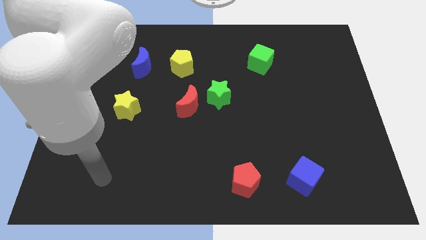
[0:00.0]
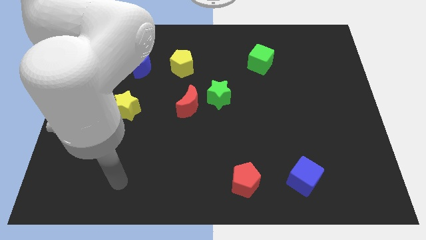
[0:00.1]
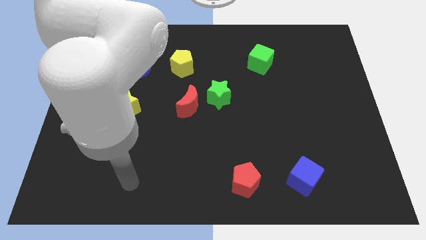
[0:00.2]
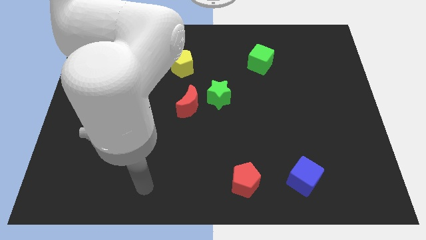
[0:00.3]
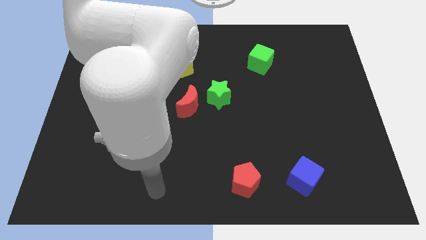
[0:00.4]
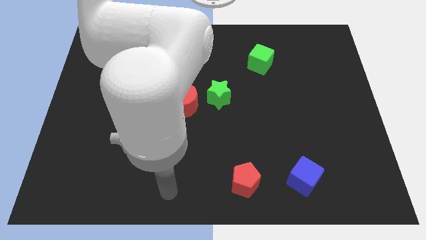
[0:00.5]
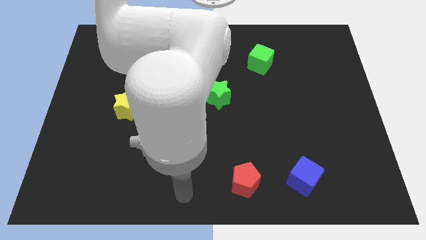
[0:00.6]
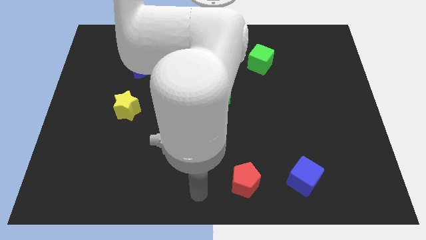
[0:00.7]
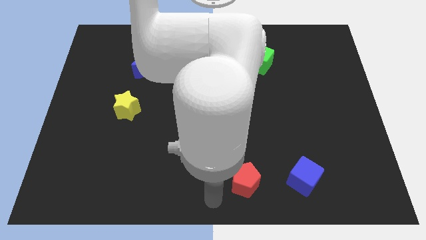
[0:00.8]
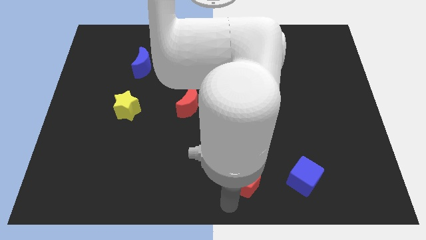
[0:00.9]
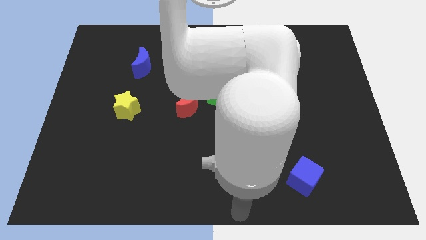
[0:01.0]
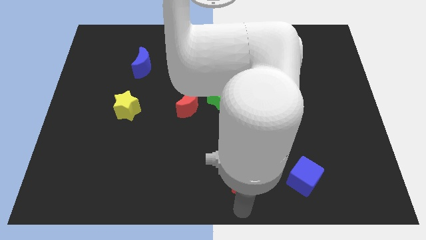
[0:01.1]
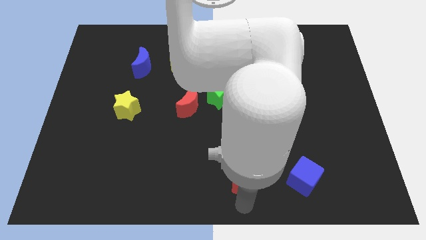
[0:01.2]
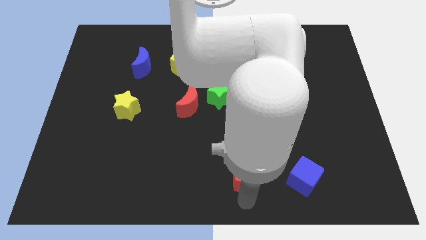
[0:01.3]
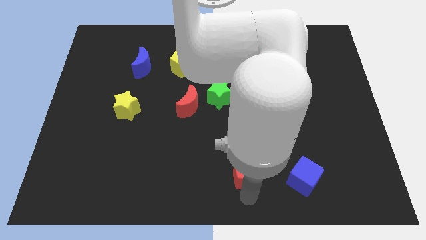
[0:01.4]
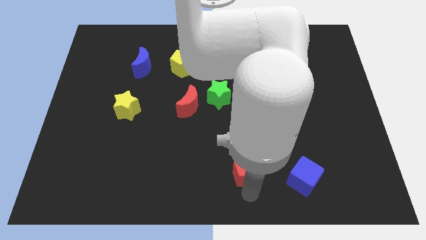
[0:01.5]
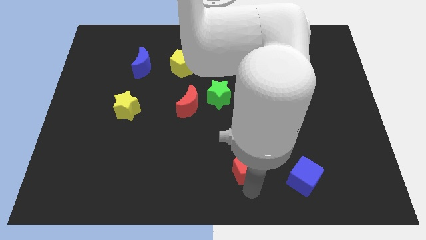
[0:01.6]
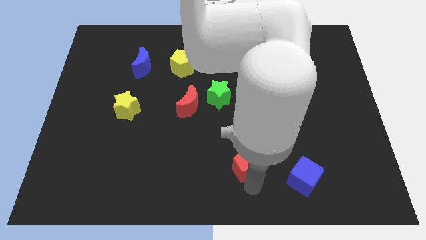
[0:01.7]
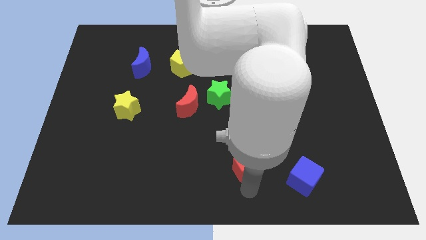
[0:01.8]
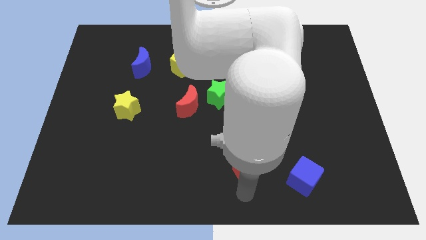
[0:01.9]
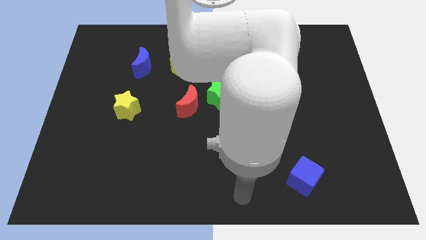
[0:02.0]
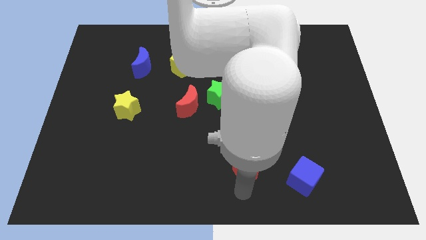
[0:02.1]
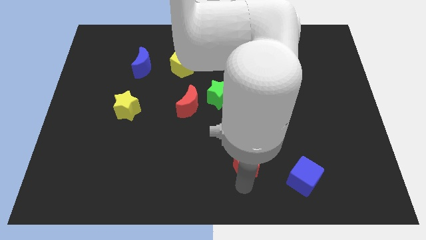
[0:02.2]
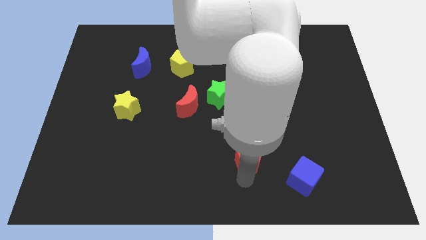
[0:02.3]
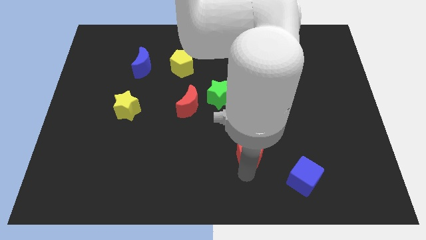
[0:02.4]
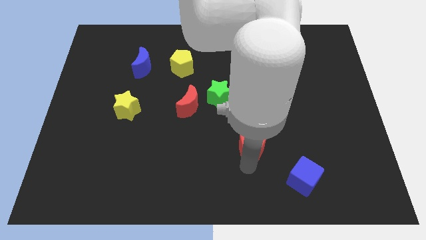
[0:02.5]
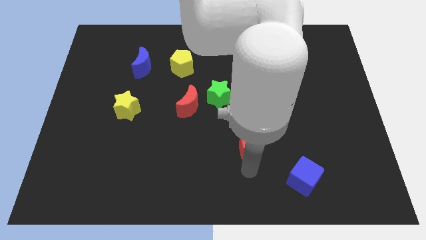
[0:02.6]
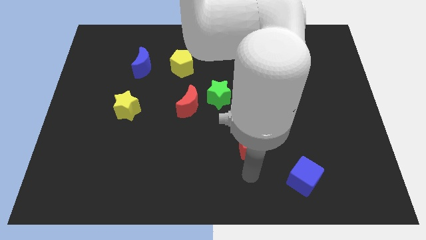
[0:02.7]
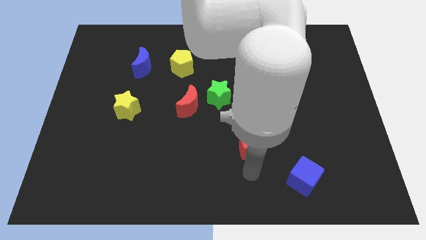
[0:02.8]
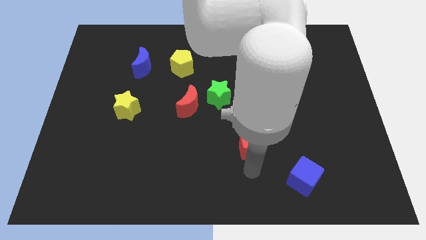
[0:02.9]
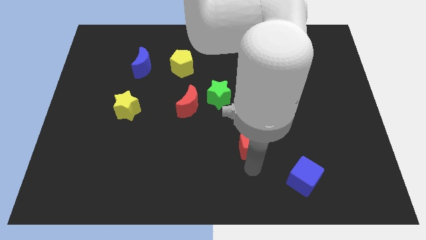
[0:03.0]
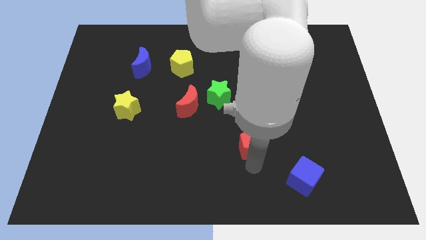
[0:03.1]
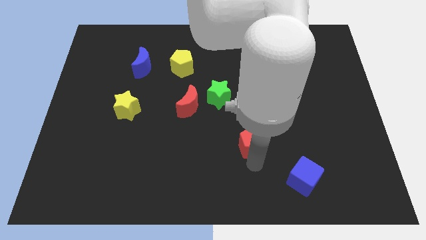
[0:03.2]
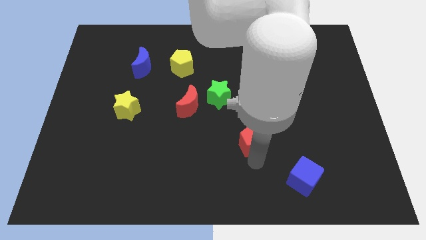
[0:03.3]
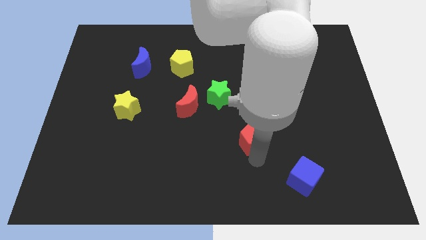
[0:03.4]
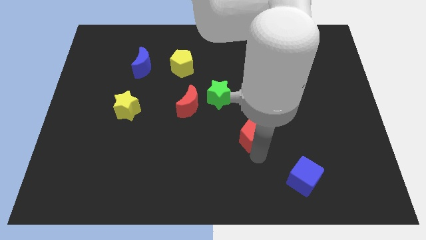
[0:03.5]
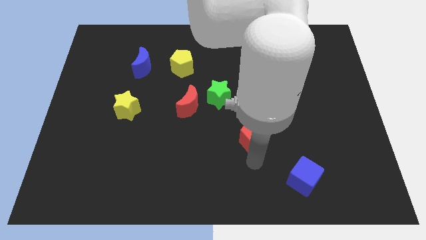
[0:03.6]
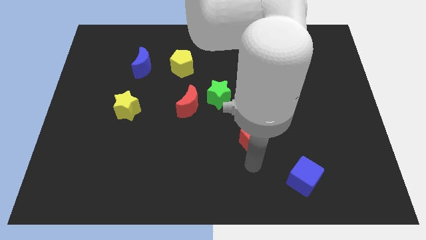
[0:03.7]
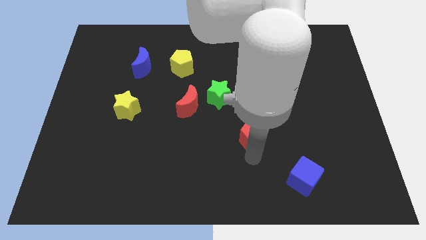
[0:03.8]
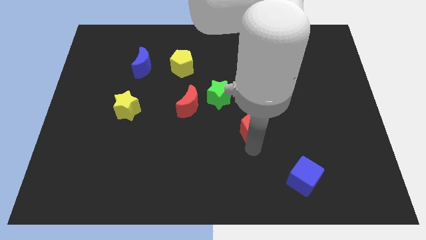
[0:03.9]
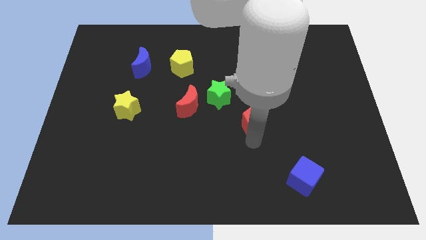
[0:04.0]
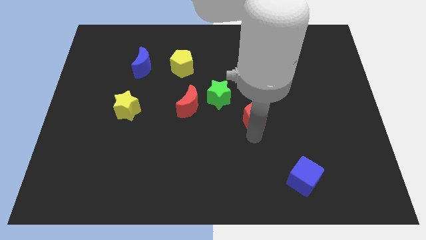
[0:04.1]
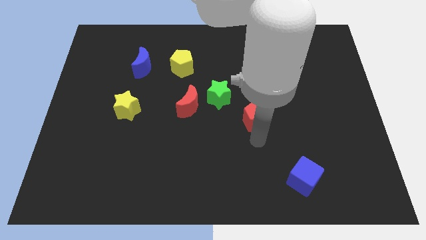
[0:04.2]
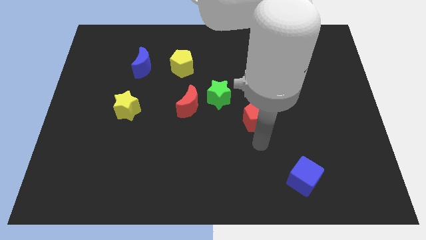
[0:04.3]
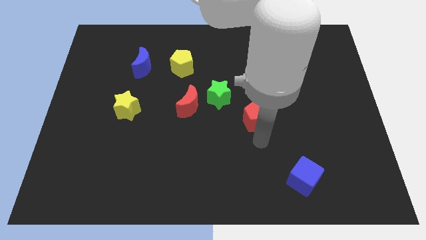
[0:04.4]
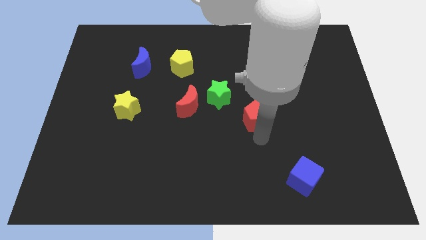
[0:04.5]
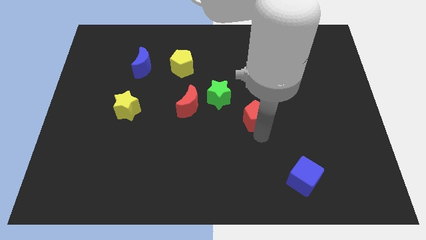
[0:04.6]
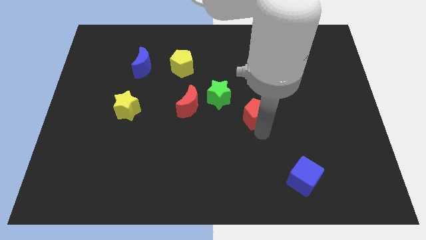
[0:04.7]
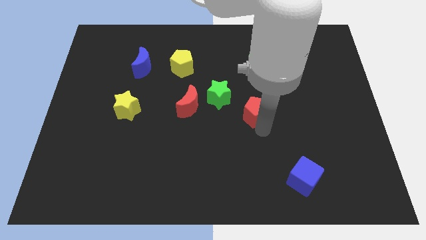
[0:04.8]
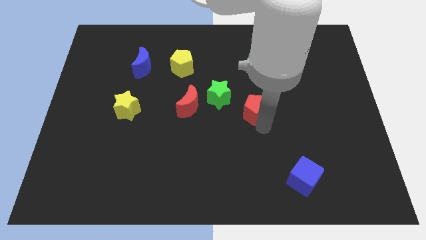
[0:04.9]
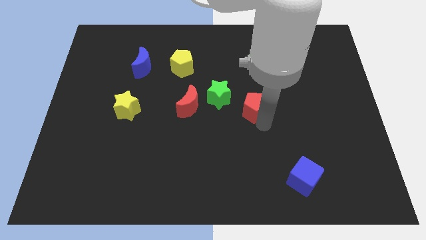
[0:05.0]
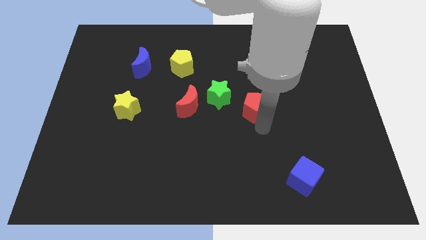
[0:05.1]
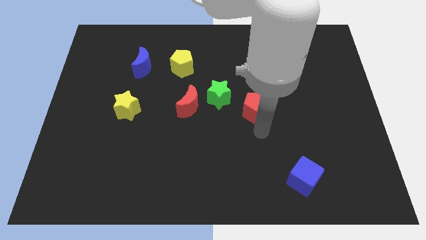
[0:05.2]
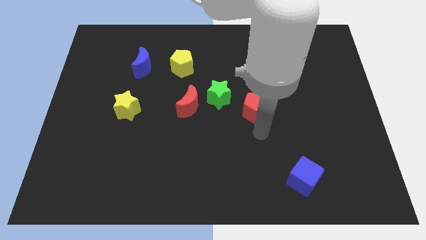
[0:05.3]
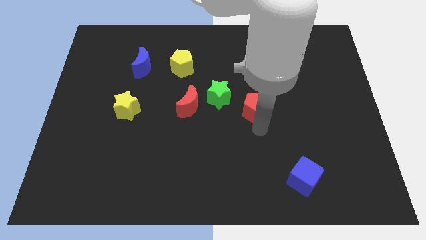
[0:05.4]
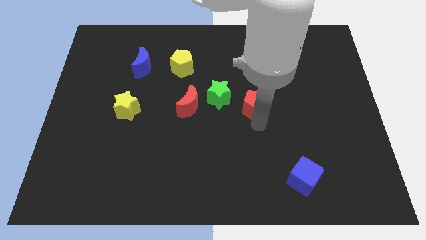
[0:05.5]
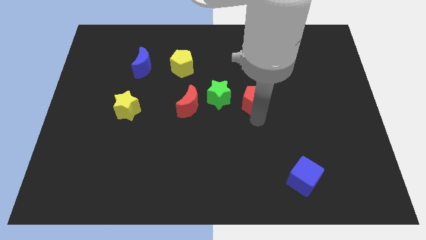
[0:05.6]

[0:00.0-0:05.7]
move the red pentagon upwards

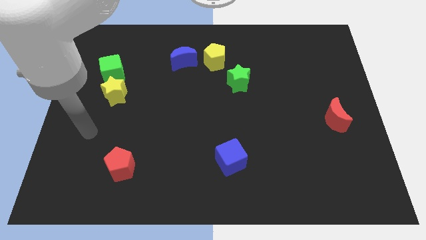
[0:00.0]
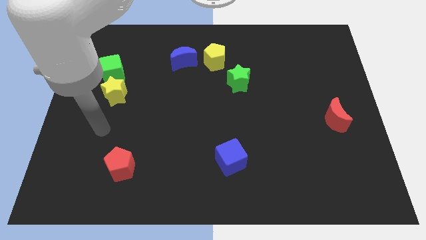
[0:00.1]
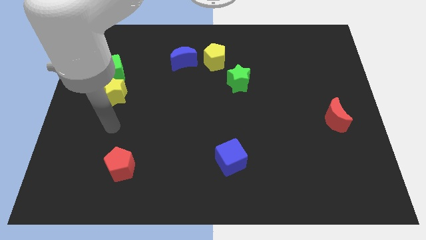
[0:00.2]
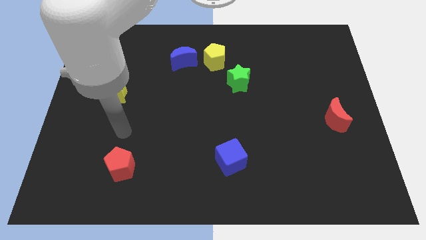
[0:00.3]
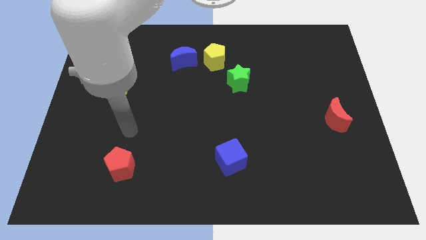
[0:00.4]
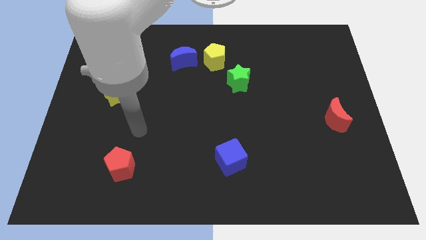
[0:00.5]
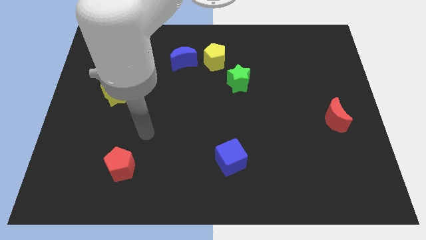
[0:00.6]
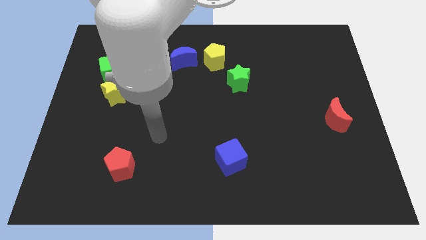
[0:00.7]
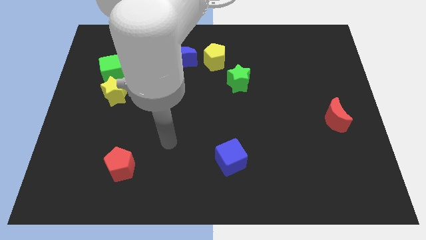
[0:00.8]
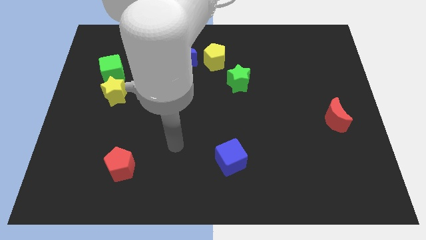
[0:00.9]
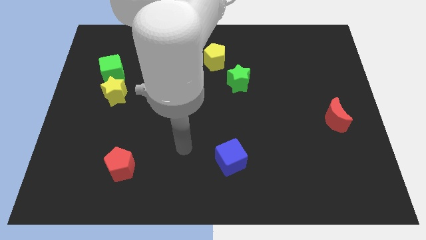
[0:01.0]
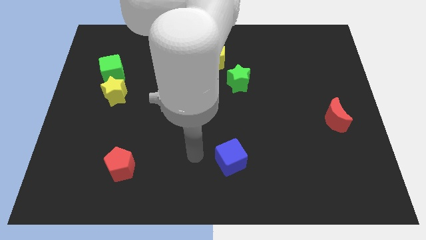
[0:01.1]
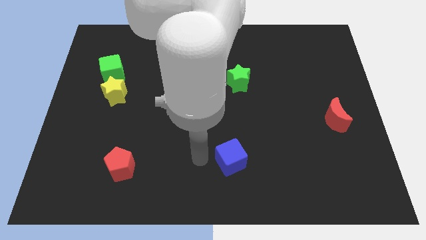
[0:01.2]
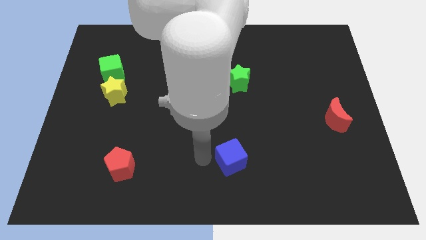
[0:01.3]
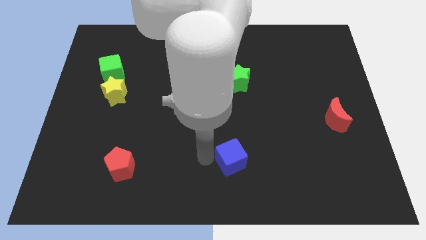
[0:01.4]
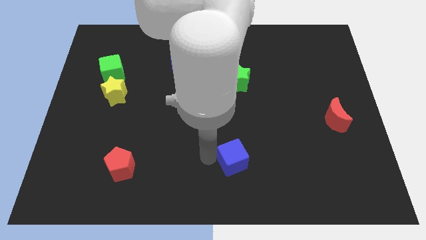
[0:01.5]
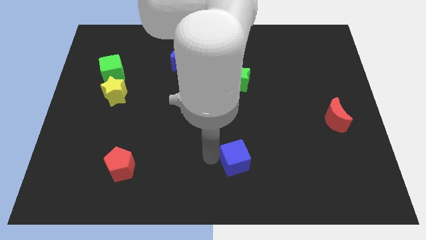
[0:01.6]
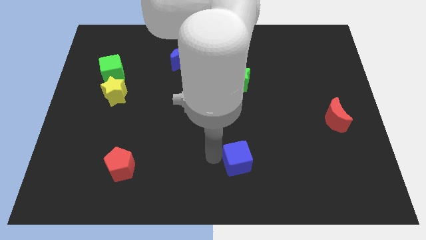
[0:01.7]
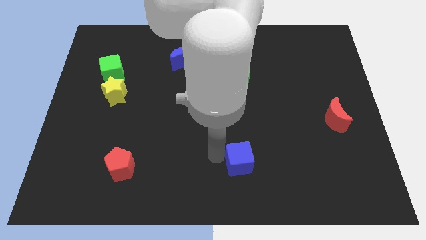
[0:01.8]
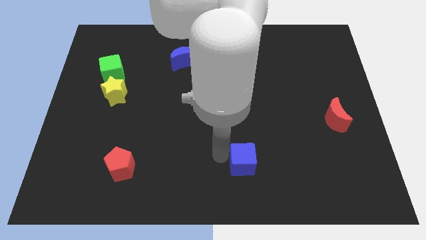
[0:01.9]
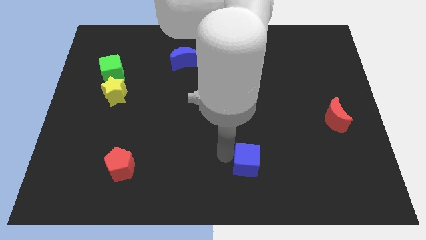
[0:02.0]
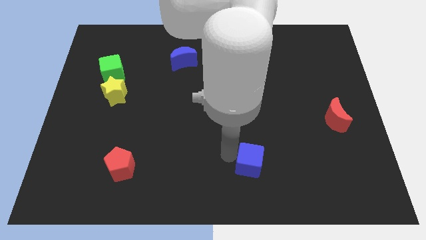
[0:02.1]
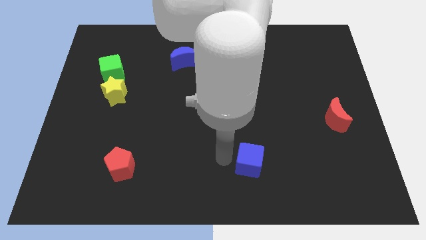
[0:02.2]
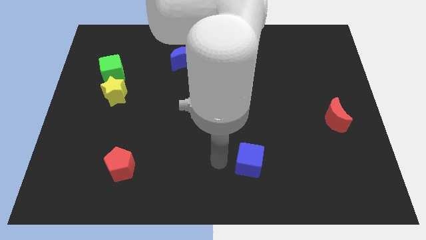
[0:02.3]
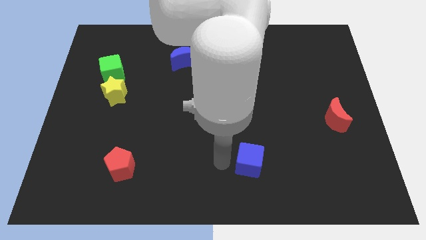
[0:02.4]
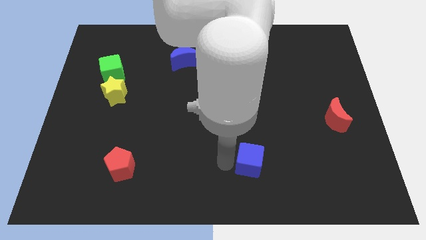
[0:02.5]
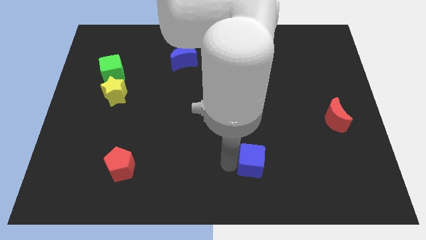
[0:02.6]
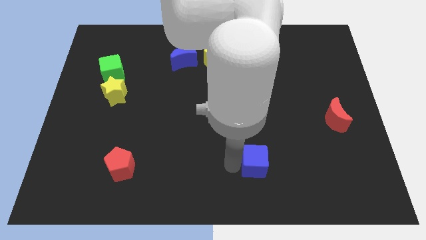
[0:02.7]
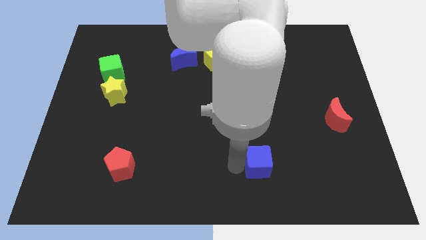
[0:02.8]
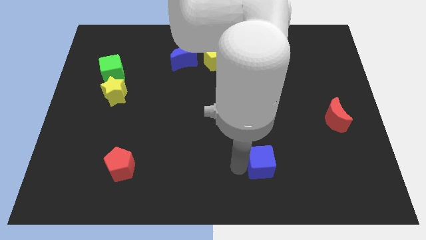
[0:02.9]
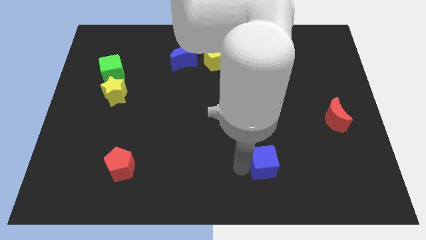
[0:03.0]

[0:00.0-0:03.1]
slightly slide the blue cube to the right
